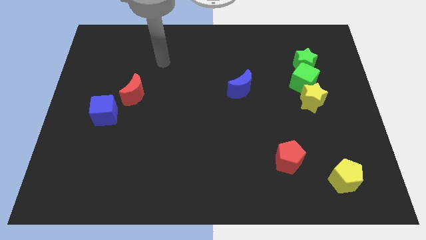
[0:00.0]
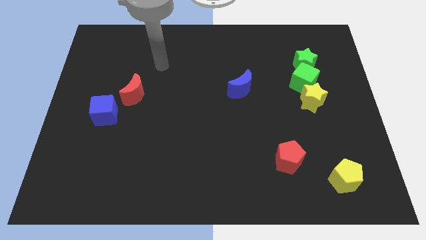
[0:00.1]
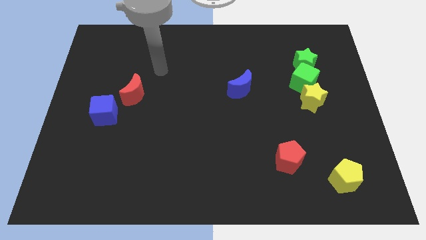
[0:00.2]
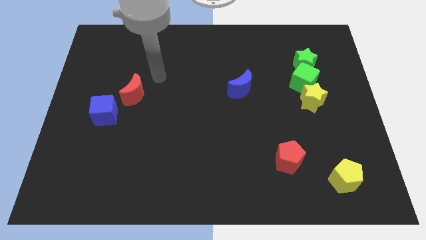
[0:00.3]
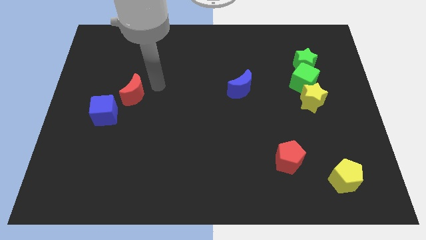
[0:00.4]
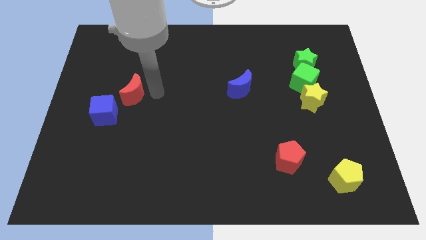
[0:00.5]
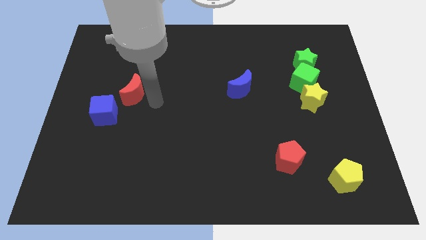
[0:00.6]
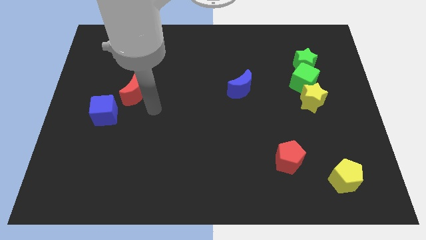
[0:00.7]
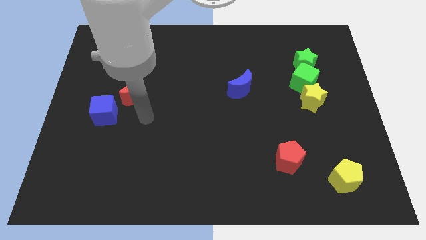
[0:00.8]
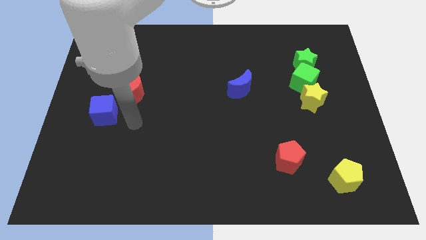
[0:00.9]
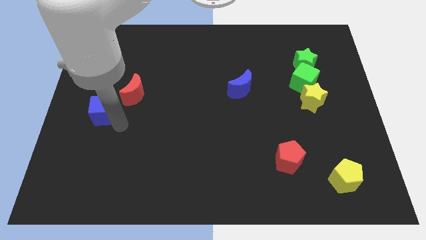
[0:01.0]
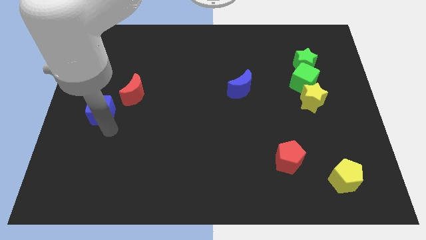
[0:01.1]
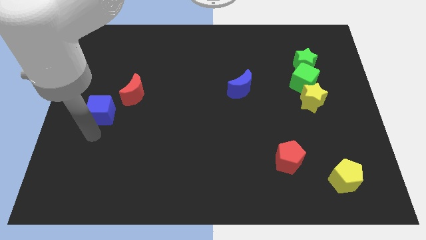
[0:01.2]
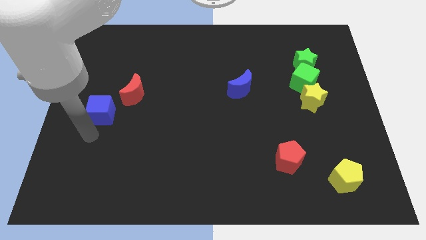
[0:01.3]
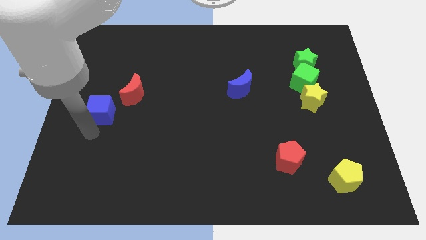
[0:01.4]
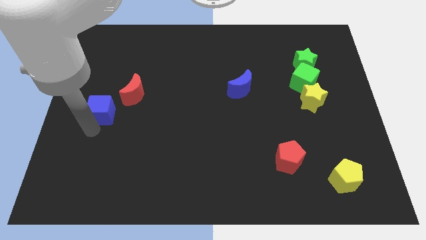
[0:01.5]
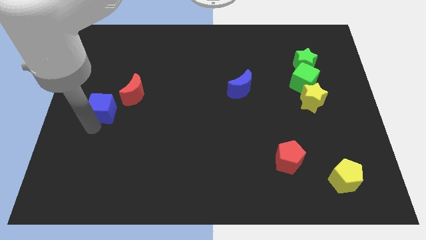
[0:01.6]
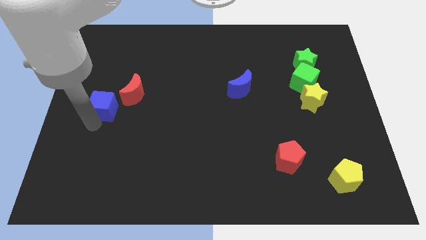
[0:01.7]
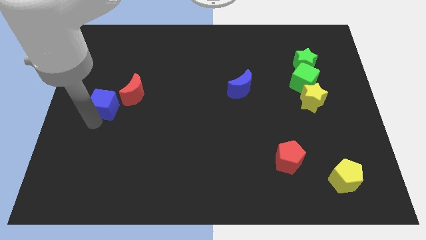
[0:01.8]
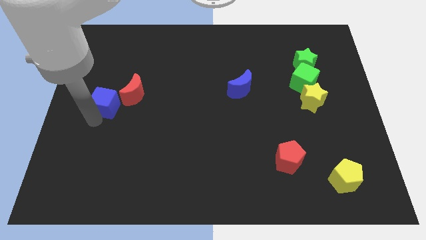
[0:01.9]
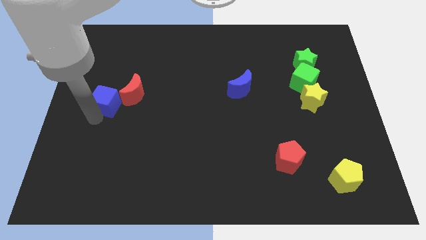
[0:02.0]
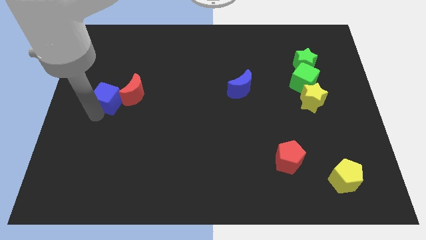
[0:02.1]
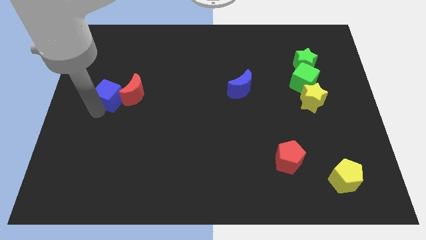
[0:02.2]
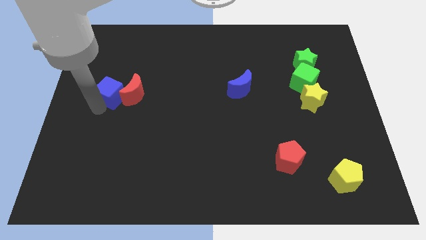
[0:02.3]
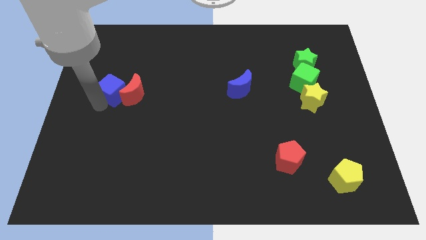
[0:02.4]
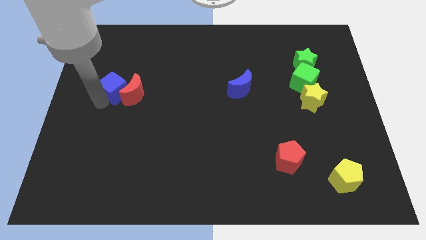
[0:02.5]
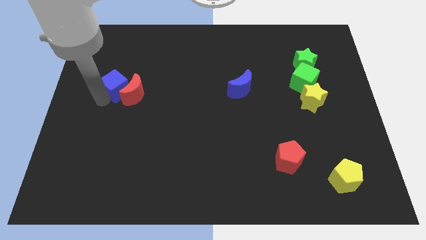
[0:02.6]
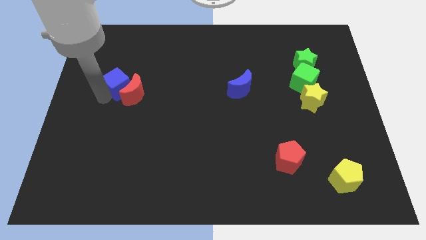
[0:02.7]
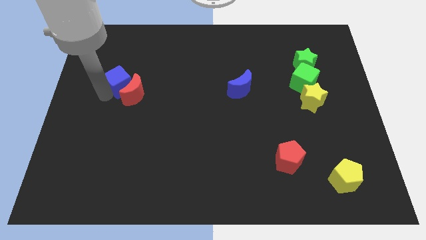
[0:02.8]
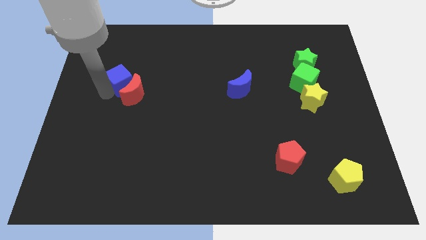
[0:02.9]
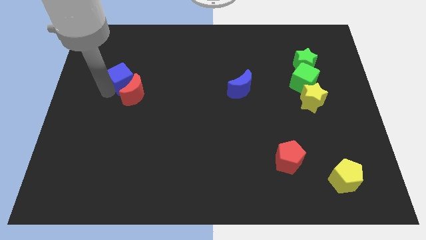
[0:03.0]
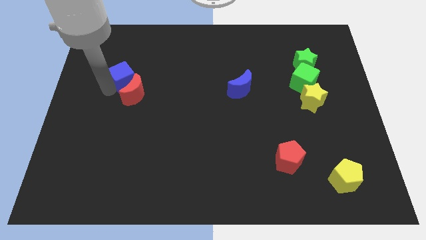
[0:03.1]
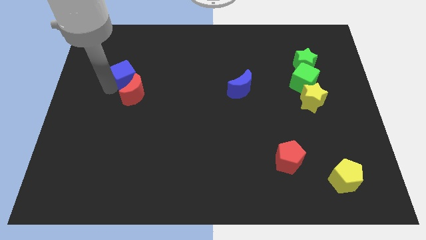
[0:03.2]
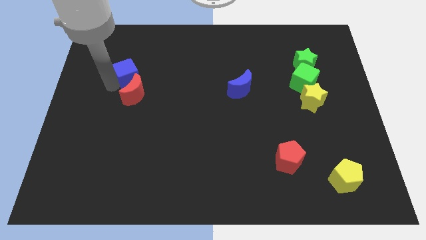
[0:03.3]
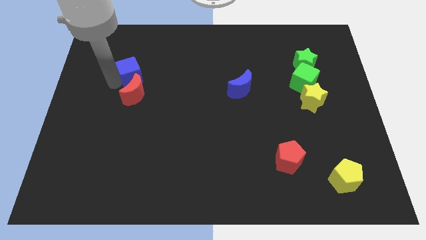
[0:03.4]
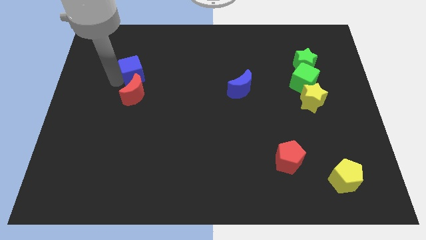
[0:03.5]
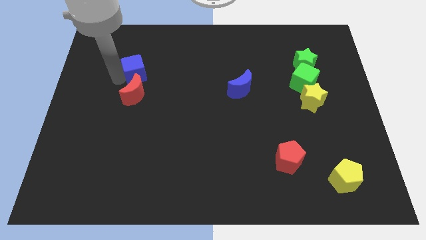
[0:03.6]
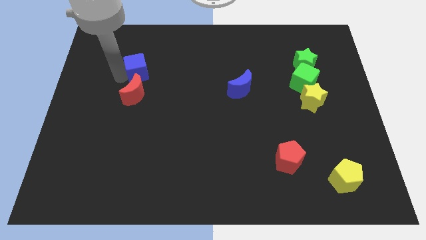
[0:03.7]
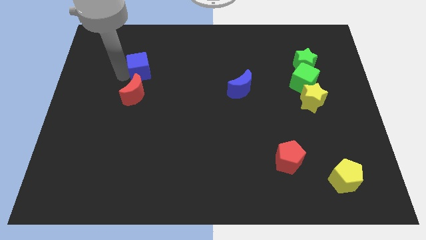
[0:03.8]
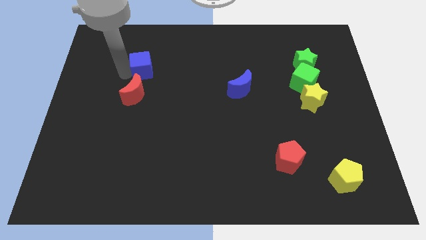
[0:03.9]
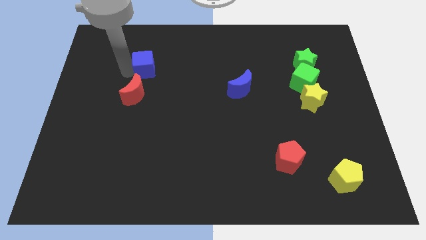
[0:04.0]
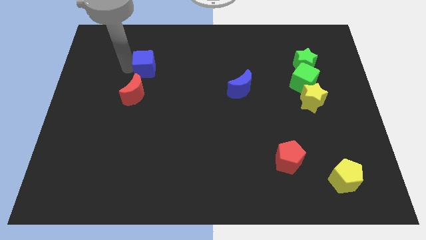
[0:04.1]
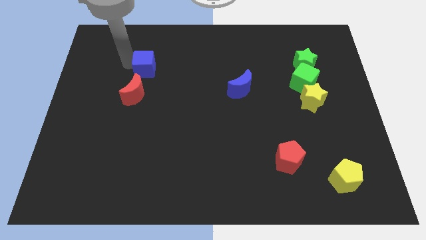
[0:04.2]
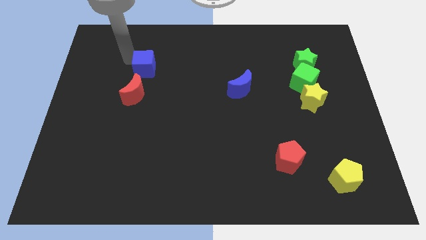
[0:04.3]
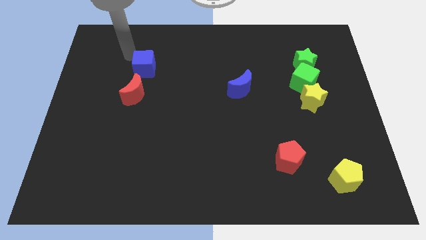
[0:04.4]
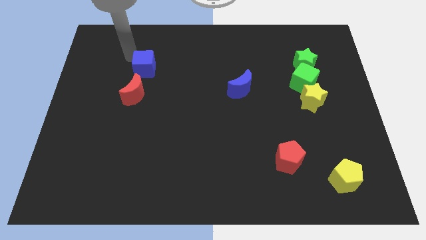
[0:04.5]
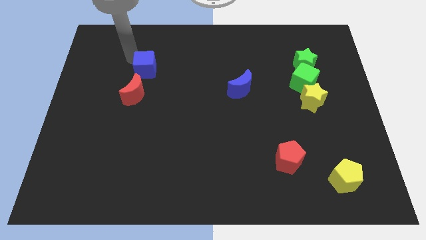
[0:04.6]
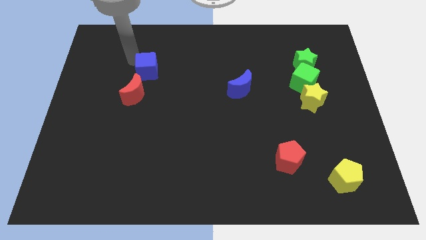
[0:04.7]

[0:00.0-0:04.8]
move the blue cube to the top right of the red moon

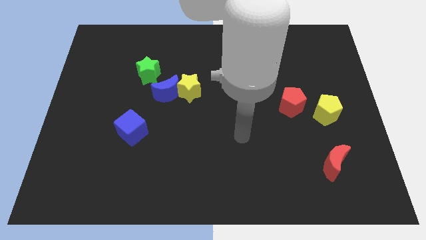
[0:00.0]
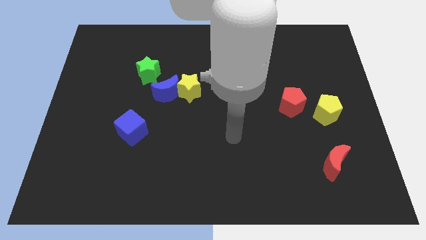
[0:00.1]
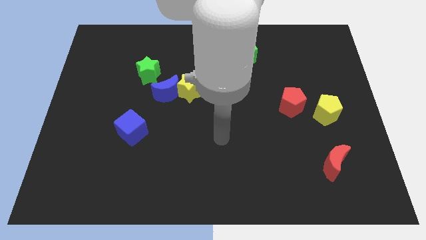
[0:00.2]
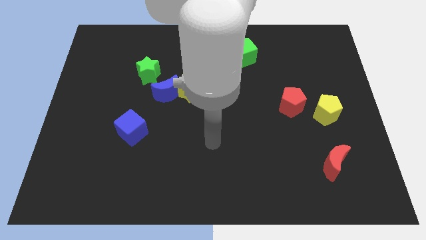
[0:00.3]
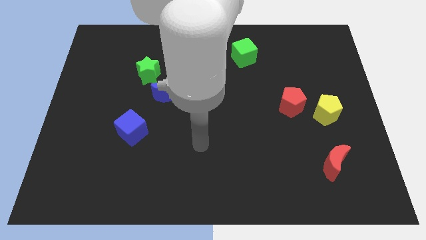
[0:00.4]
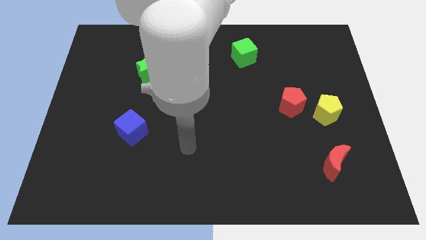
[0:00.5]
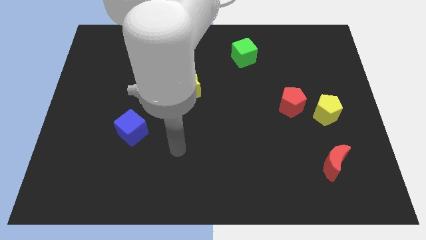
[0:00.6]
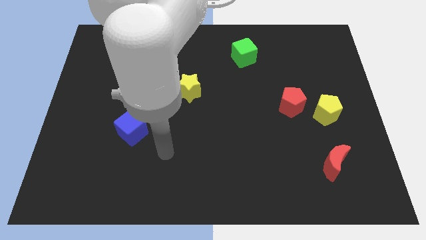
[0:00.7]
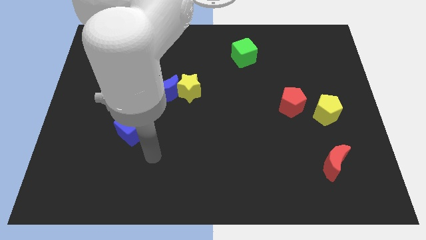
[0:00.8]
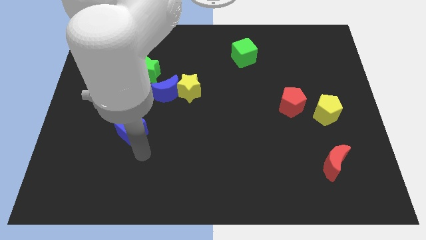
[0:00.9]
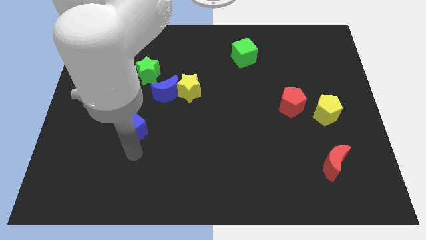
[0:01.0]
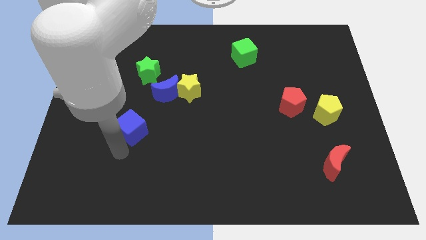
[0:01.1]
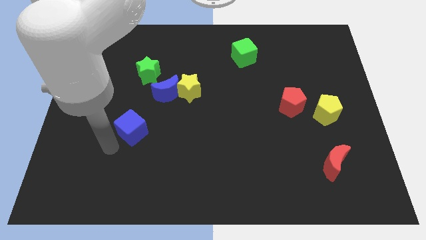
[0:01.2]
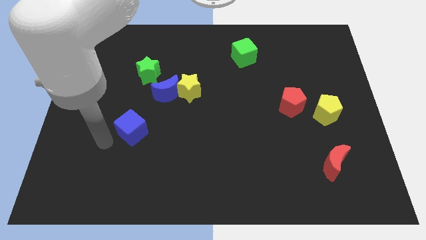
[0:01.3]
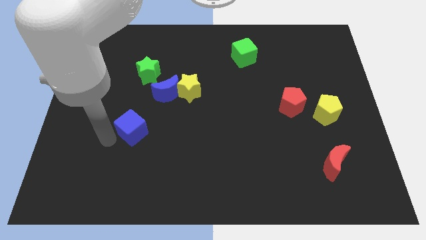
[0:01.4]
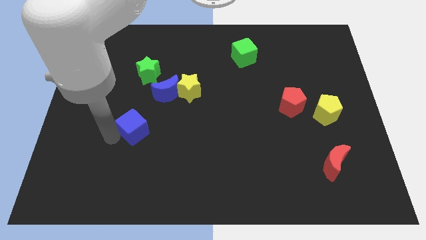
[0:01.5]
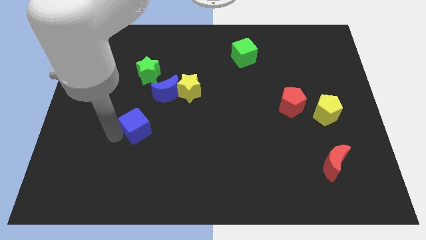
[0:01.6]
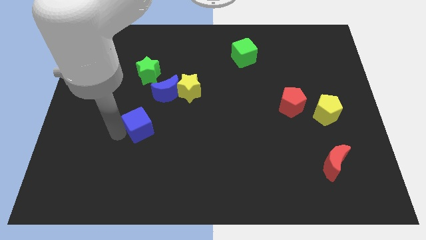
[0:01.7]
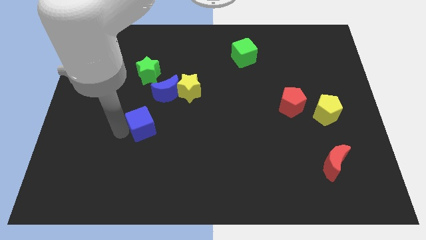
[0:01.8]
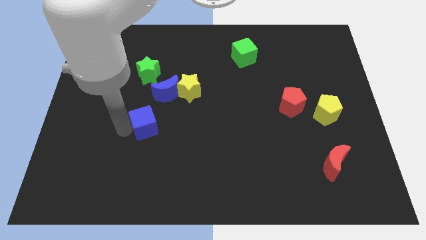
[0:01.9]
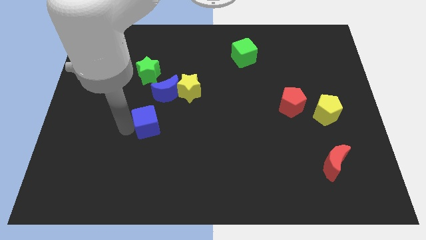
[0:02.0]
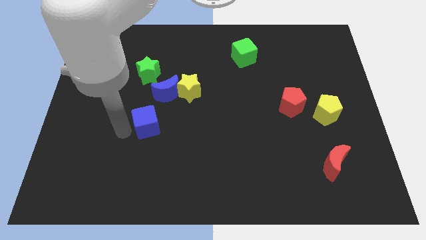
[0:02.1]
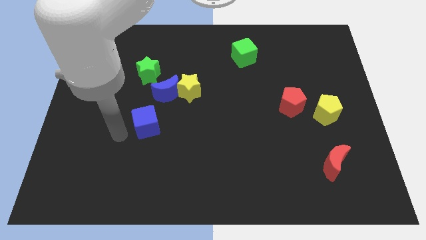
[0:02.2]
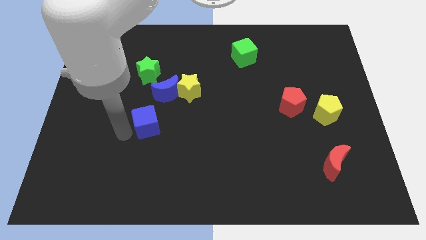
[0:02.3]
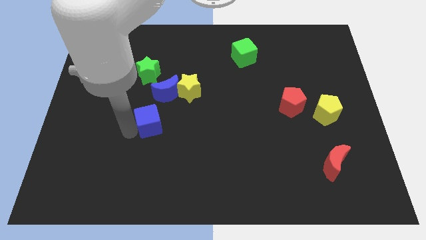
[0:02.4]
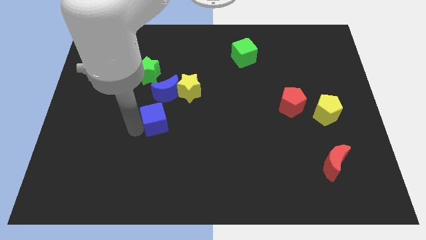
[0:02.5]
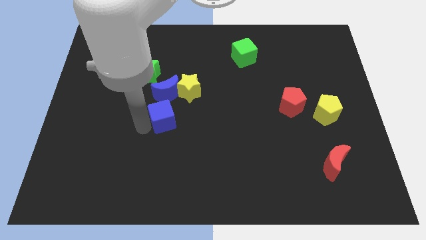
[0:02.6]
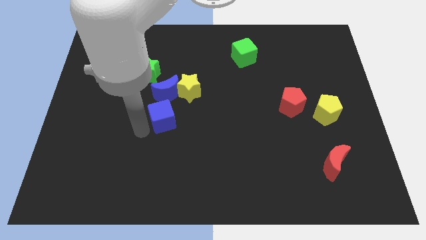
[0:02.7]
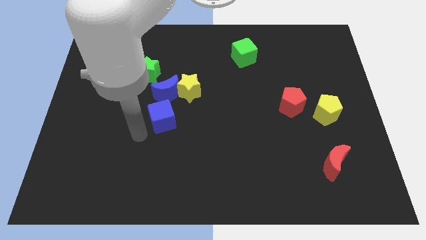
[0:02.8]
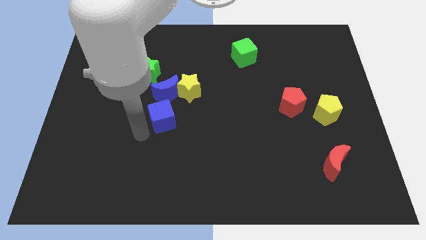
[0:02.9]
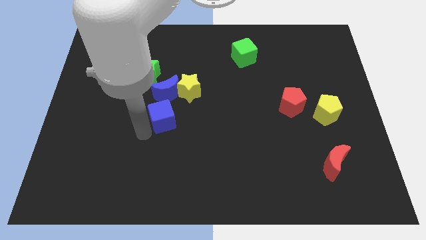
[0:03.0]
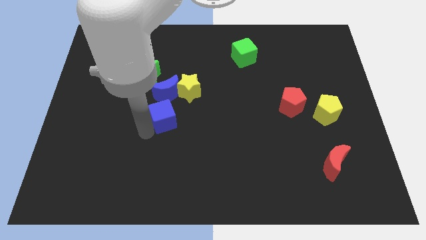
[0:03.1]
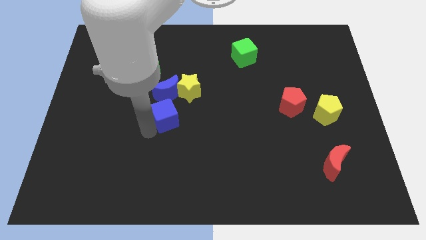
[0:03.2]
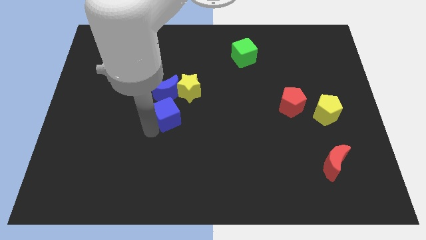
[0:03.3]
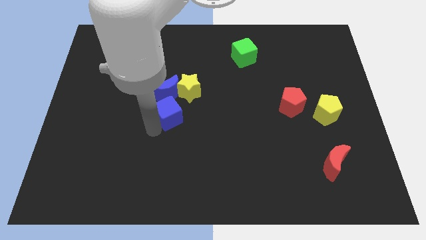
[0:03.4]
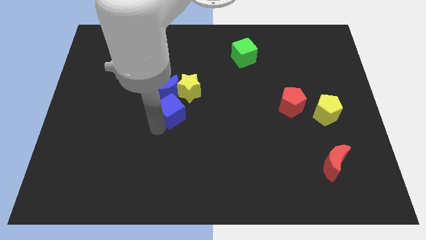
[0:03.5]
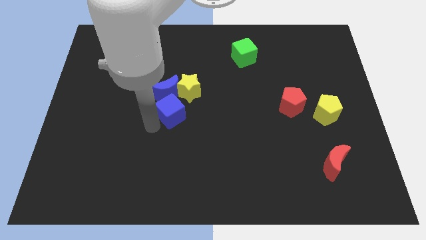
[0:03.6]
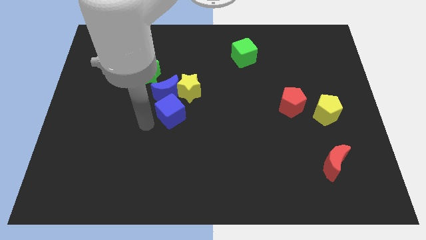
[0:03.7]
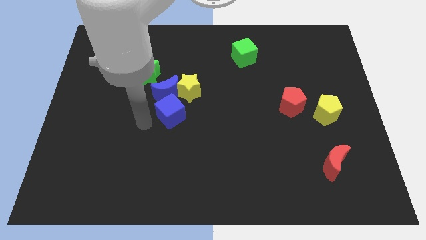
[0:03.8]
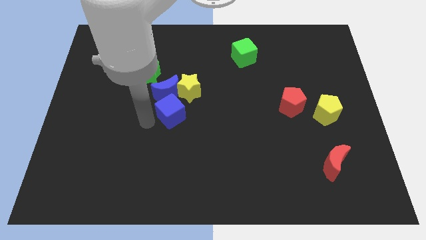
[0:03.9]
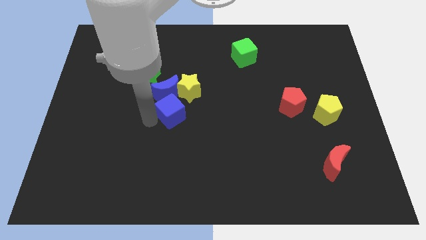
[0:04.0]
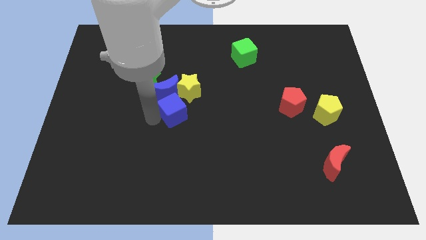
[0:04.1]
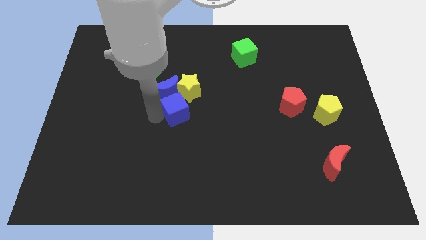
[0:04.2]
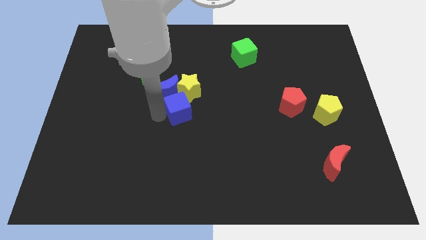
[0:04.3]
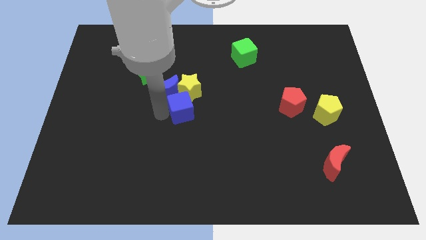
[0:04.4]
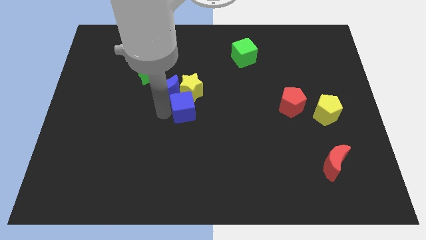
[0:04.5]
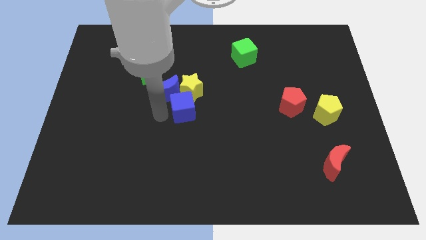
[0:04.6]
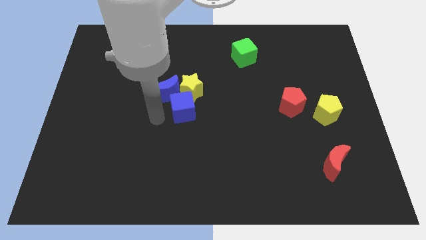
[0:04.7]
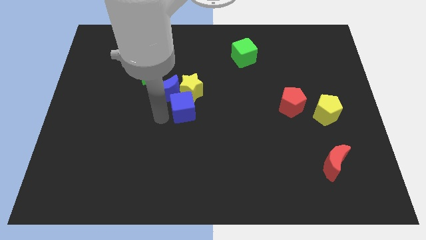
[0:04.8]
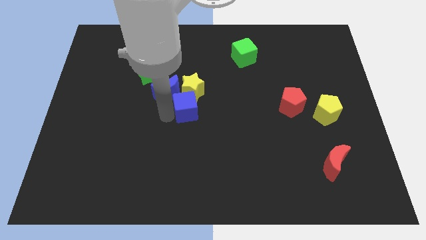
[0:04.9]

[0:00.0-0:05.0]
slide the blue cube to the right of the blue moon
